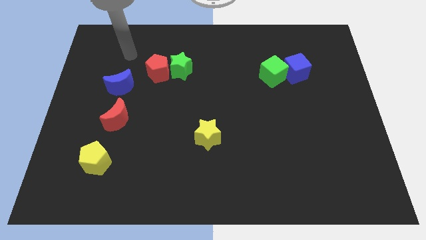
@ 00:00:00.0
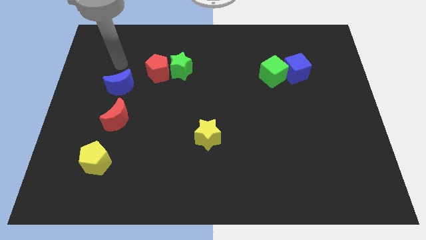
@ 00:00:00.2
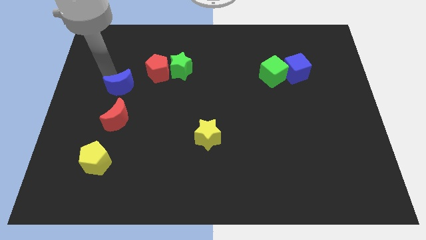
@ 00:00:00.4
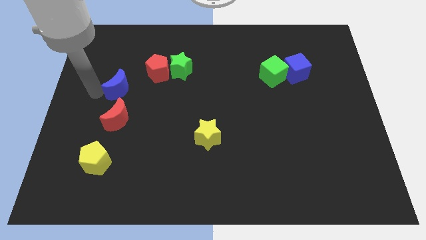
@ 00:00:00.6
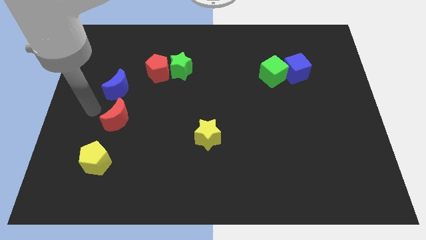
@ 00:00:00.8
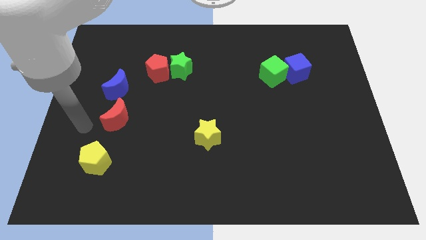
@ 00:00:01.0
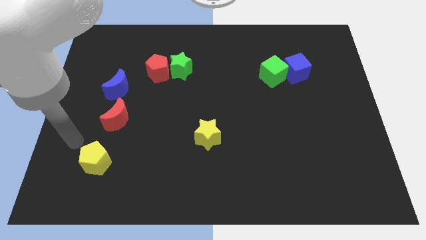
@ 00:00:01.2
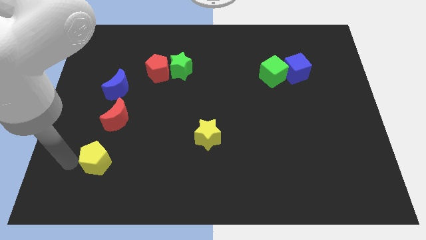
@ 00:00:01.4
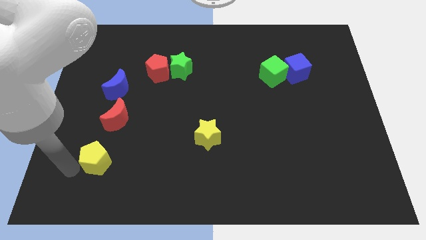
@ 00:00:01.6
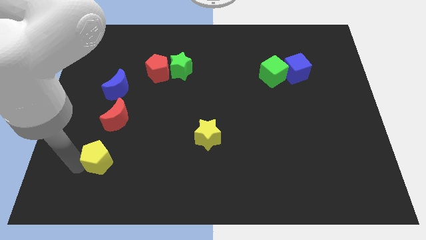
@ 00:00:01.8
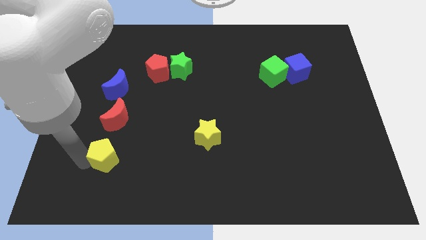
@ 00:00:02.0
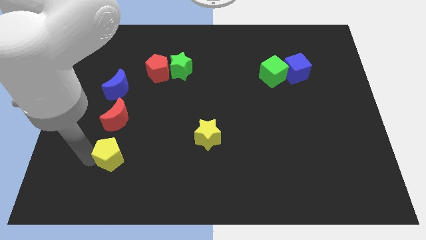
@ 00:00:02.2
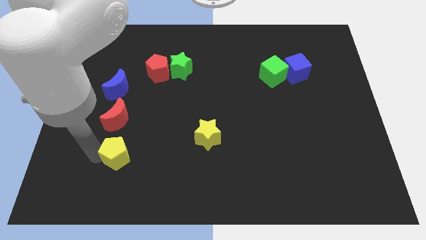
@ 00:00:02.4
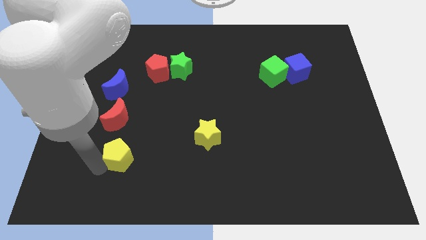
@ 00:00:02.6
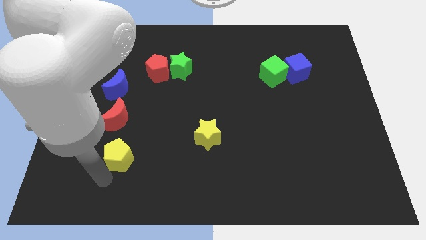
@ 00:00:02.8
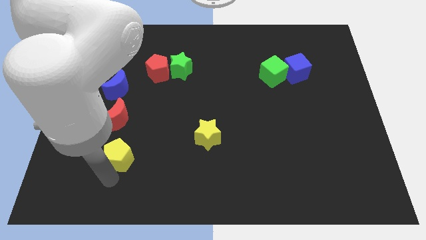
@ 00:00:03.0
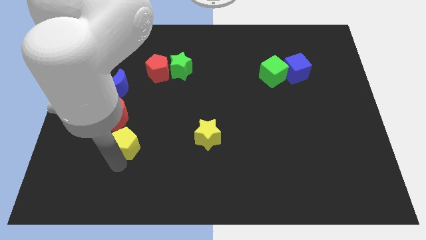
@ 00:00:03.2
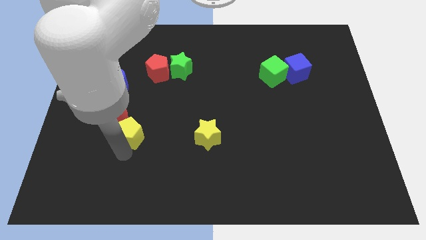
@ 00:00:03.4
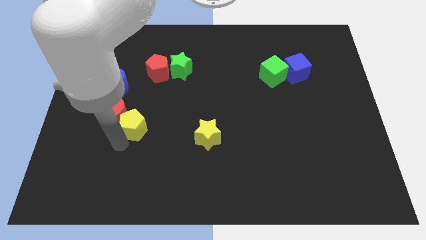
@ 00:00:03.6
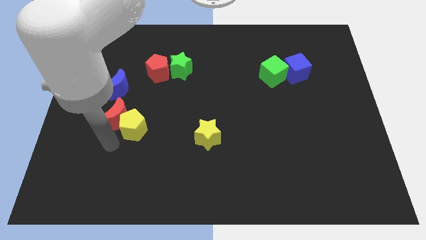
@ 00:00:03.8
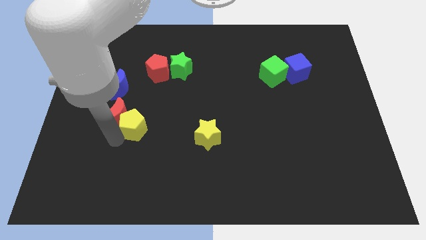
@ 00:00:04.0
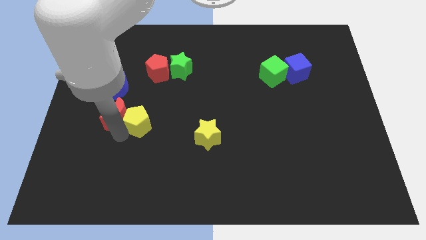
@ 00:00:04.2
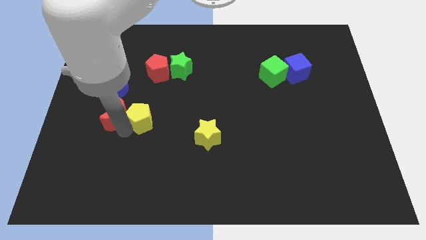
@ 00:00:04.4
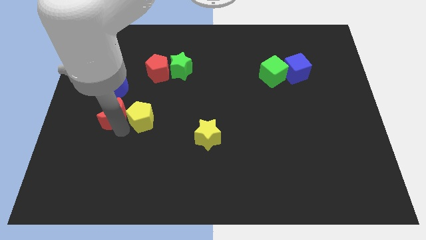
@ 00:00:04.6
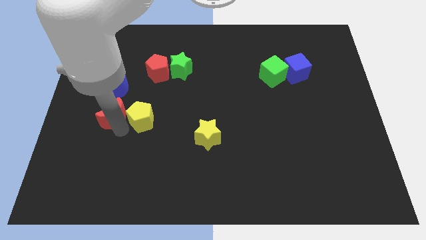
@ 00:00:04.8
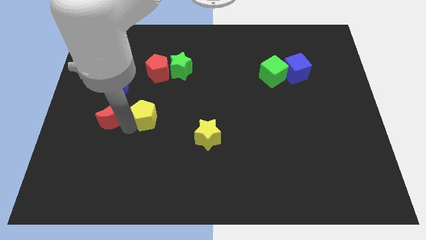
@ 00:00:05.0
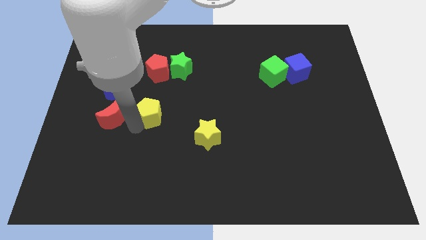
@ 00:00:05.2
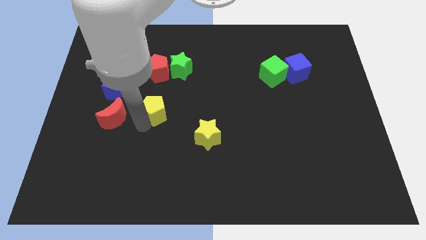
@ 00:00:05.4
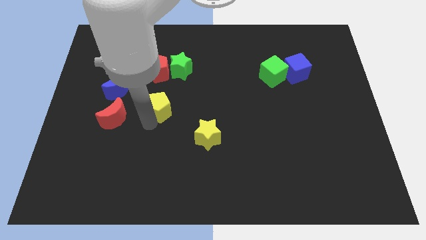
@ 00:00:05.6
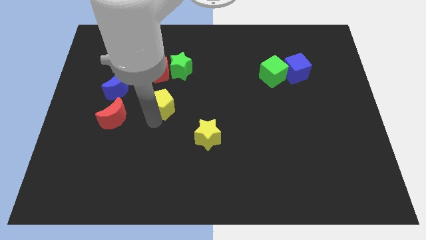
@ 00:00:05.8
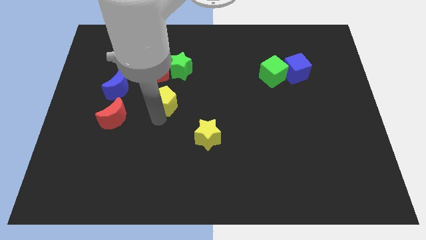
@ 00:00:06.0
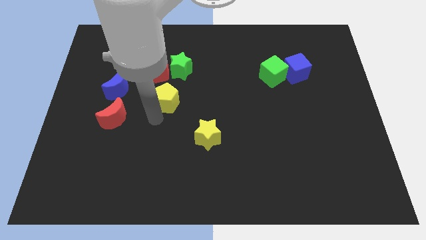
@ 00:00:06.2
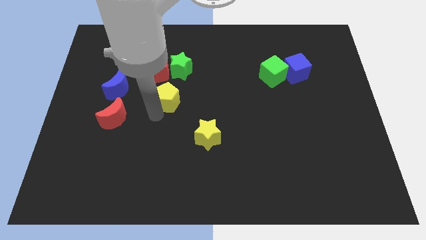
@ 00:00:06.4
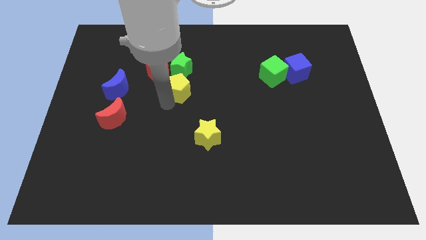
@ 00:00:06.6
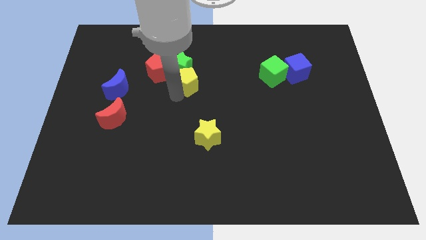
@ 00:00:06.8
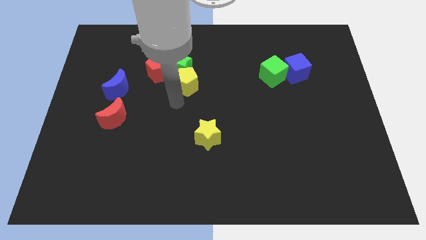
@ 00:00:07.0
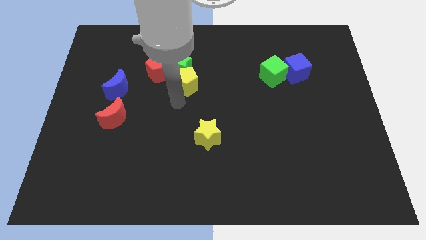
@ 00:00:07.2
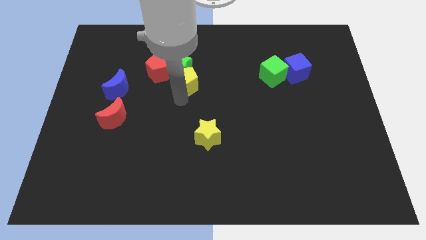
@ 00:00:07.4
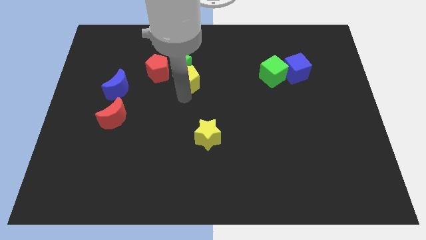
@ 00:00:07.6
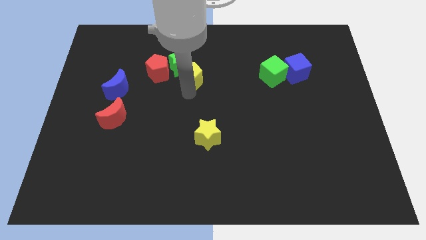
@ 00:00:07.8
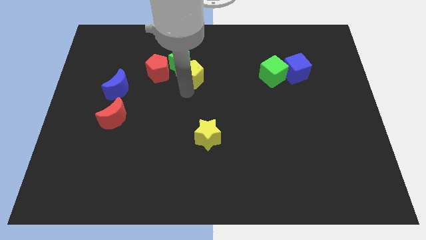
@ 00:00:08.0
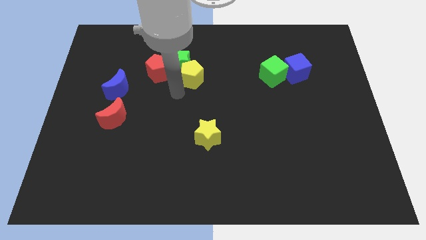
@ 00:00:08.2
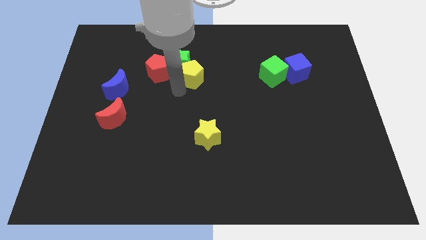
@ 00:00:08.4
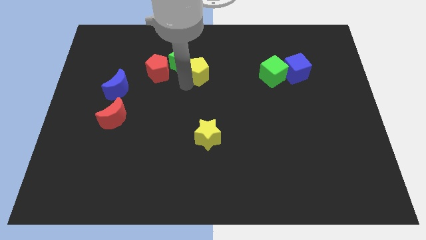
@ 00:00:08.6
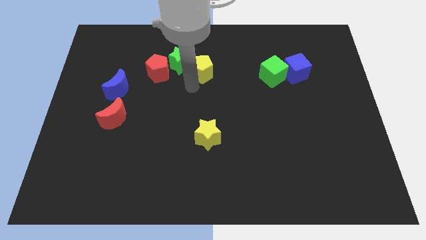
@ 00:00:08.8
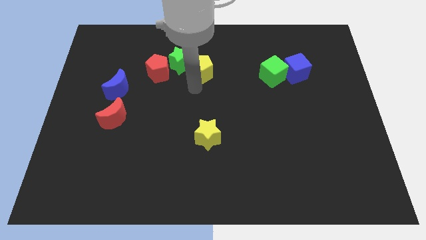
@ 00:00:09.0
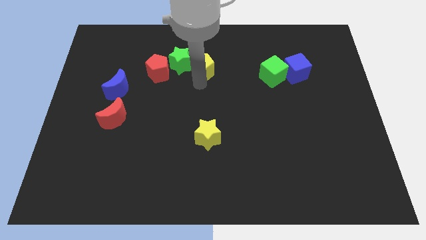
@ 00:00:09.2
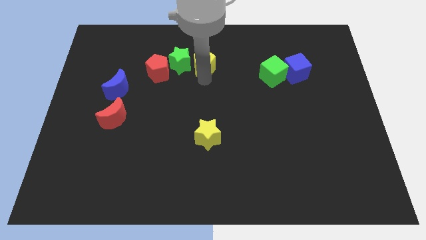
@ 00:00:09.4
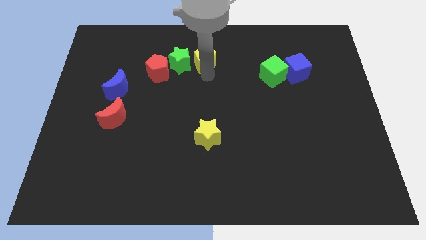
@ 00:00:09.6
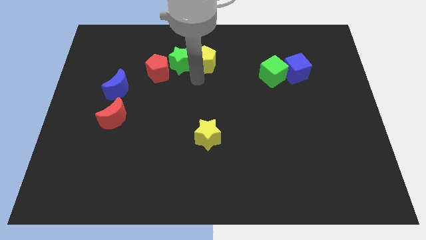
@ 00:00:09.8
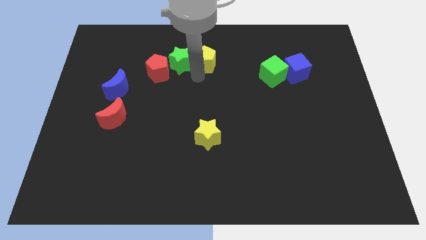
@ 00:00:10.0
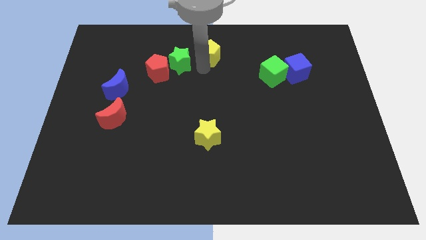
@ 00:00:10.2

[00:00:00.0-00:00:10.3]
slide the yellow pentagon to the top side
